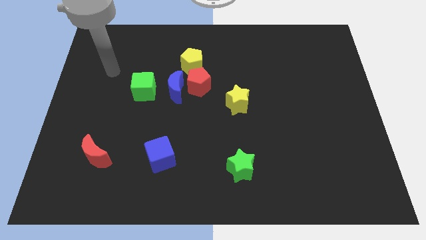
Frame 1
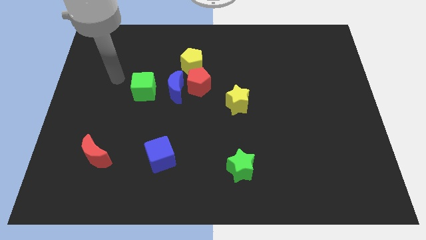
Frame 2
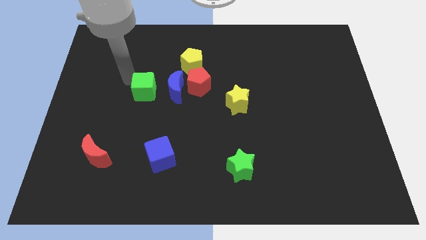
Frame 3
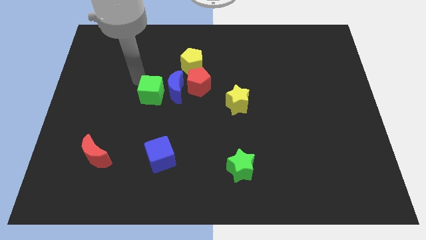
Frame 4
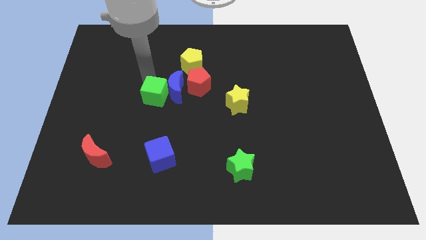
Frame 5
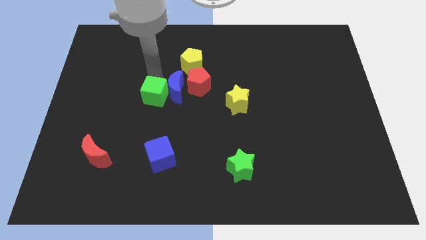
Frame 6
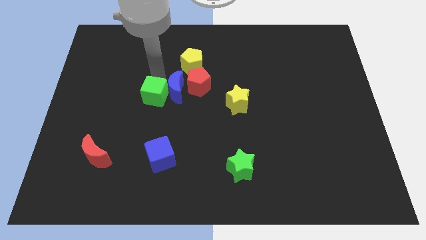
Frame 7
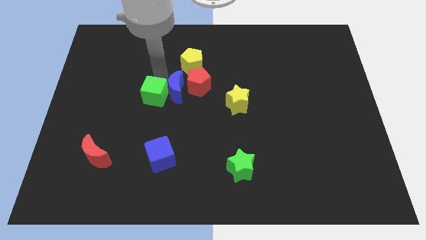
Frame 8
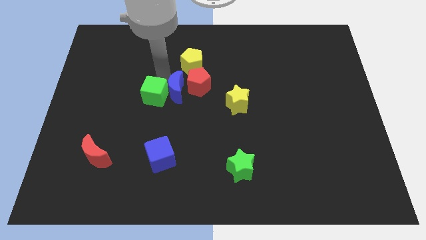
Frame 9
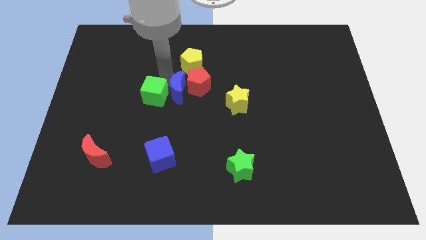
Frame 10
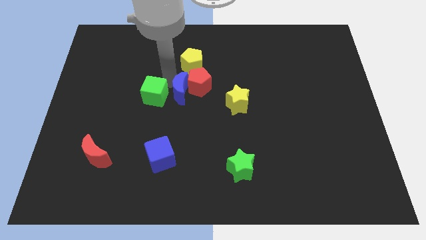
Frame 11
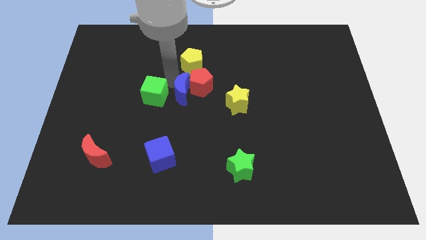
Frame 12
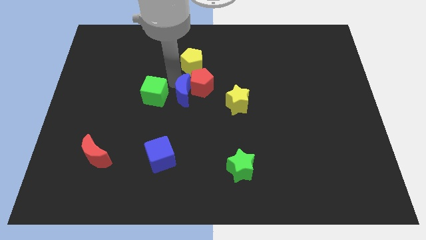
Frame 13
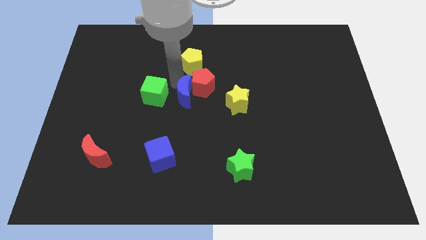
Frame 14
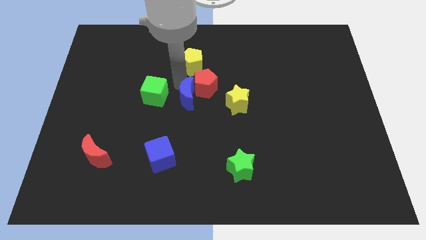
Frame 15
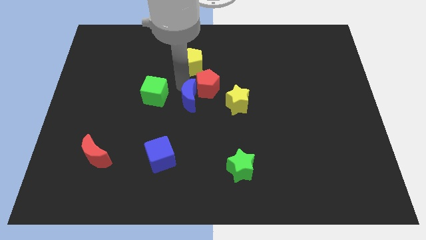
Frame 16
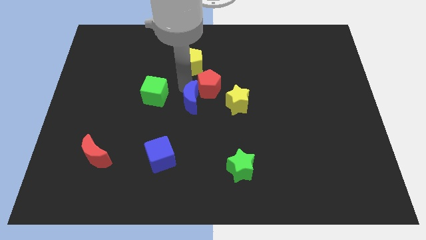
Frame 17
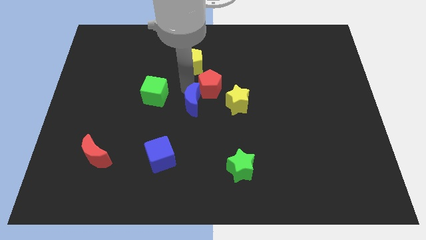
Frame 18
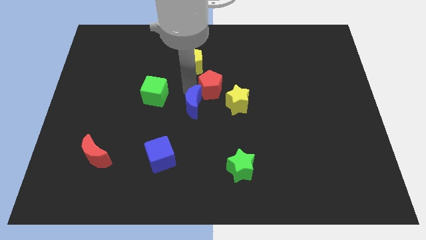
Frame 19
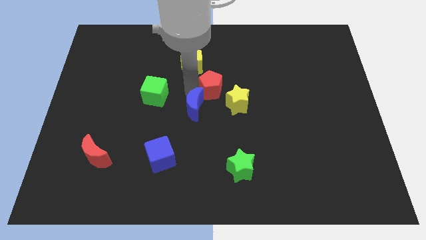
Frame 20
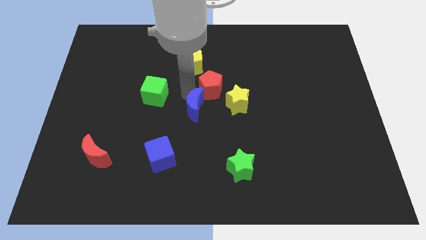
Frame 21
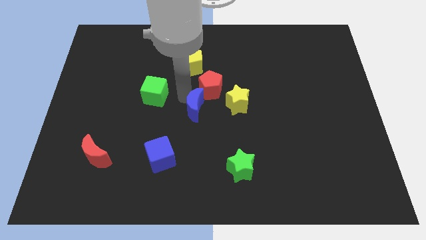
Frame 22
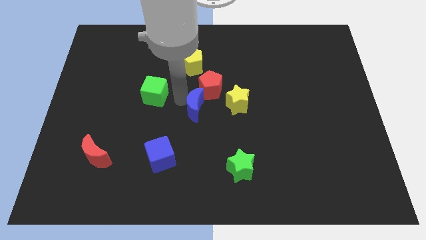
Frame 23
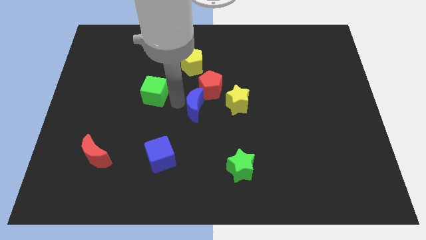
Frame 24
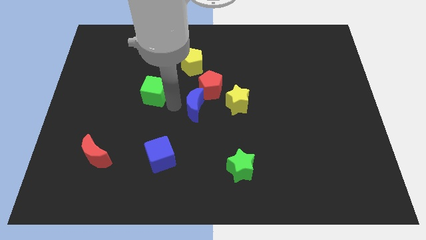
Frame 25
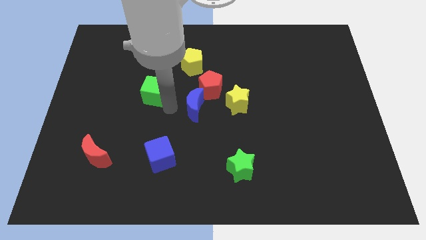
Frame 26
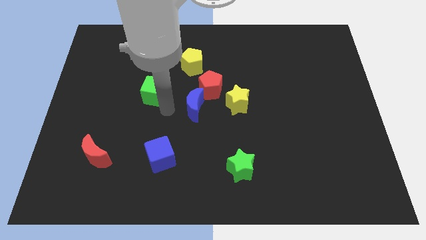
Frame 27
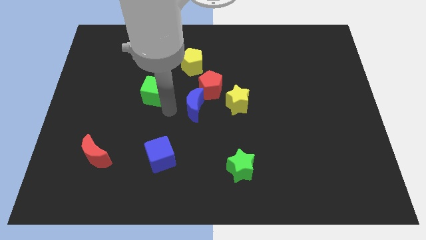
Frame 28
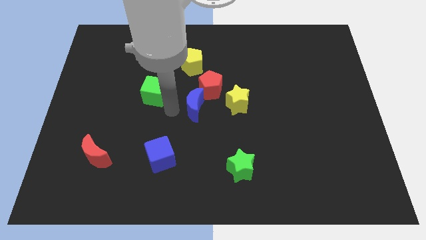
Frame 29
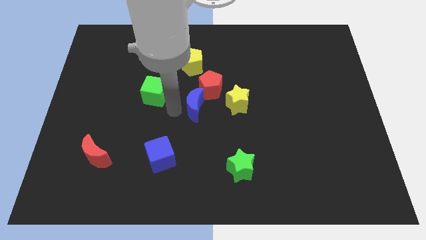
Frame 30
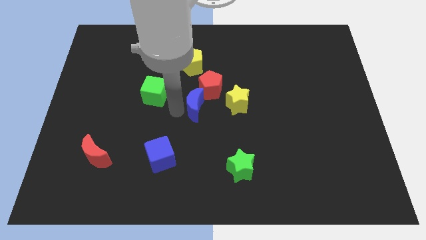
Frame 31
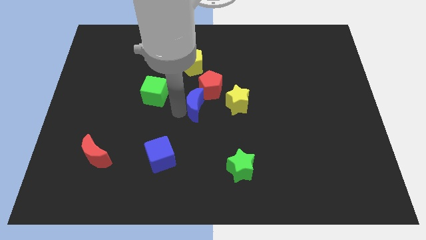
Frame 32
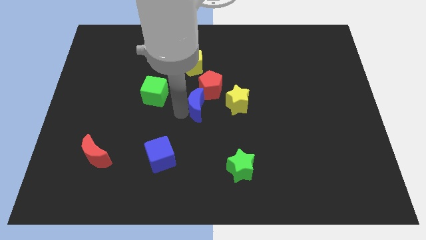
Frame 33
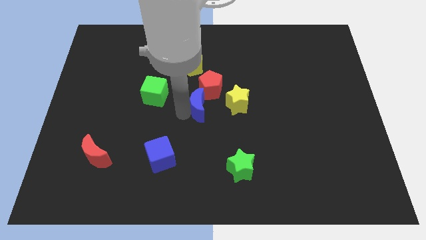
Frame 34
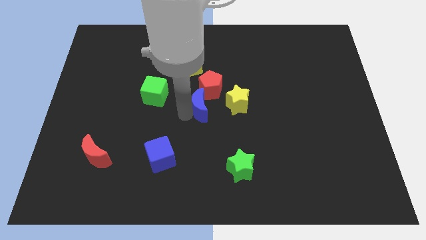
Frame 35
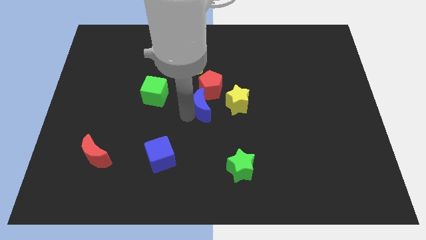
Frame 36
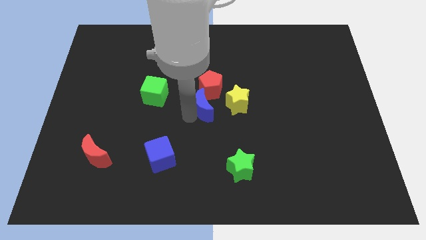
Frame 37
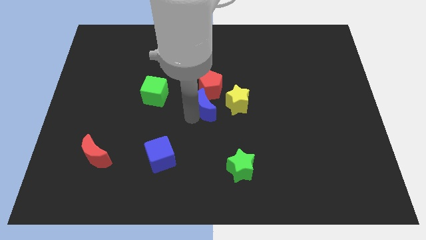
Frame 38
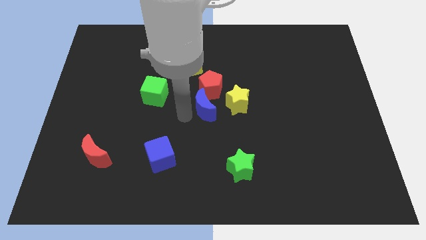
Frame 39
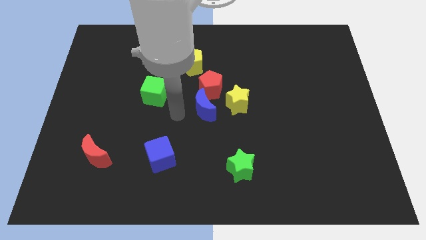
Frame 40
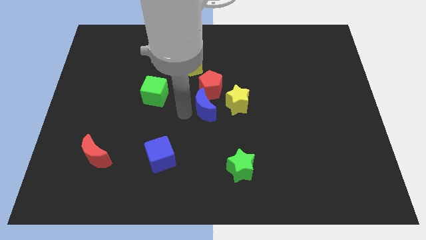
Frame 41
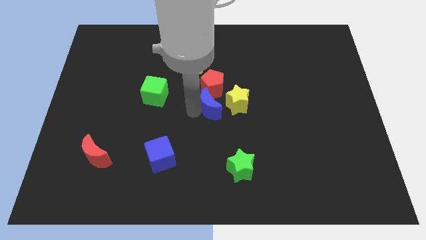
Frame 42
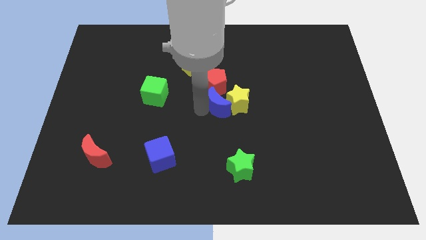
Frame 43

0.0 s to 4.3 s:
put the blue moon next to the yellow star

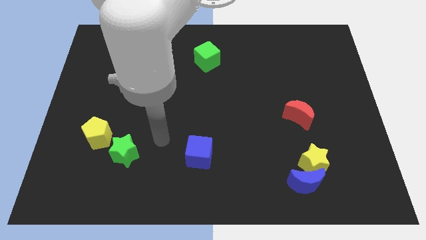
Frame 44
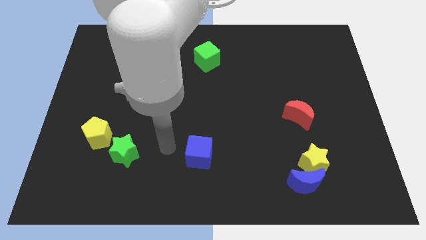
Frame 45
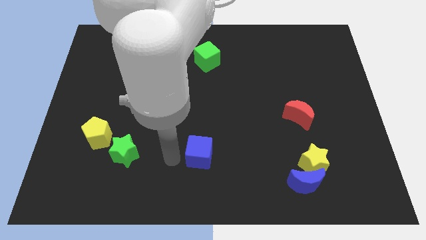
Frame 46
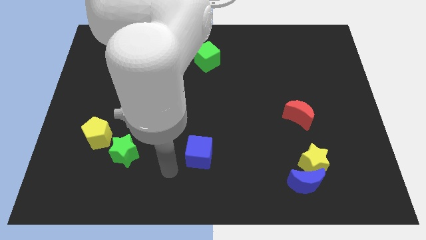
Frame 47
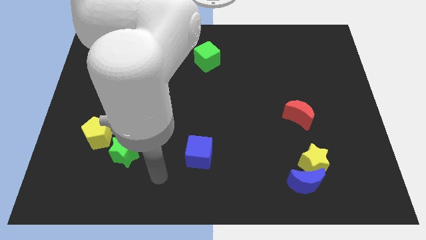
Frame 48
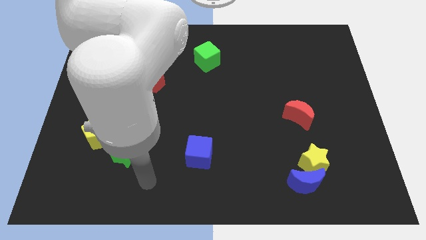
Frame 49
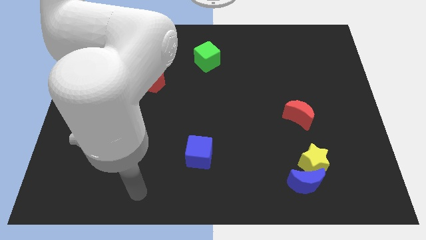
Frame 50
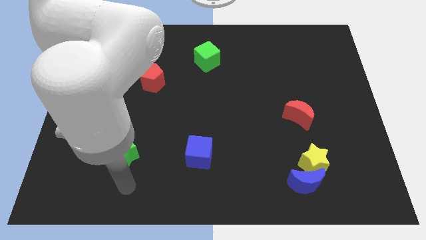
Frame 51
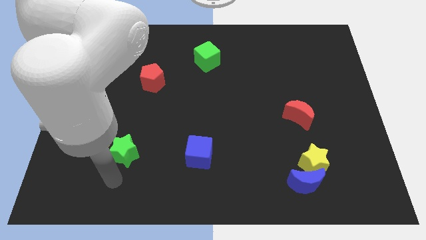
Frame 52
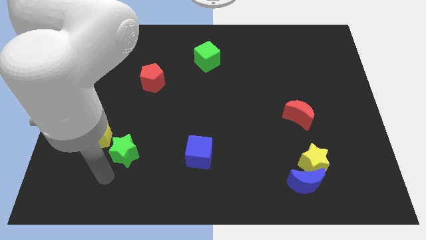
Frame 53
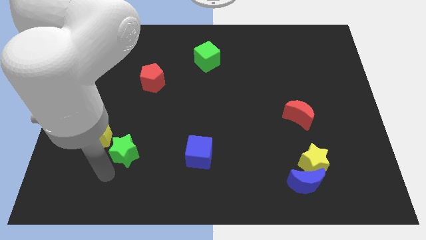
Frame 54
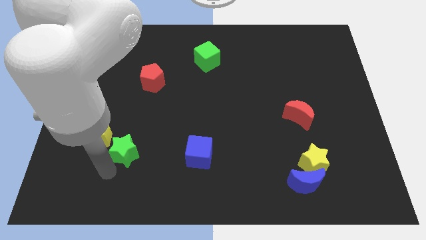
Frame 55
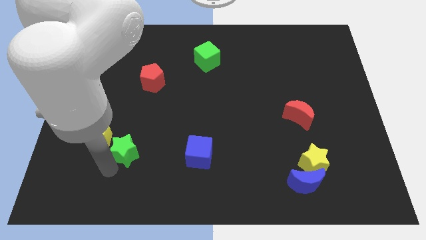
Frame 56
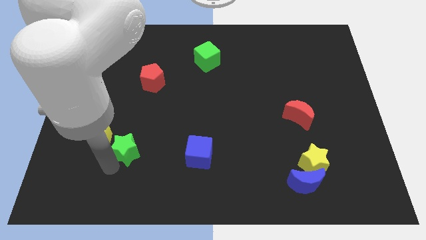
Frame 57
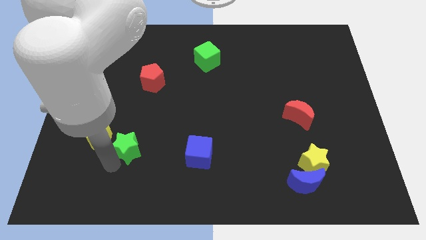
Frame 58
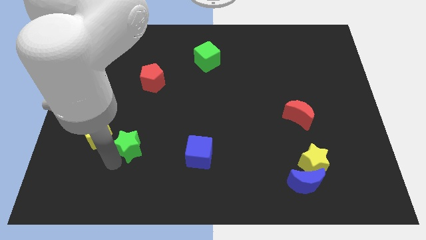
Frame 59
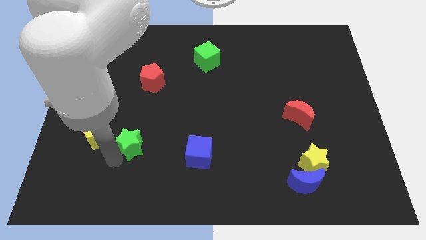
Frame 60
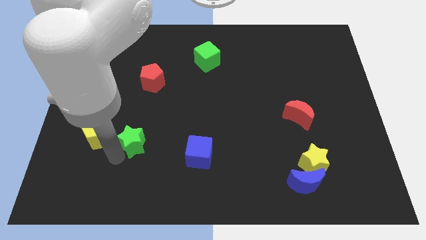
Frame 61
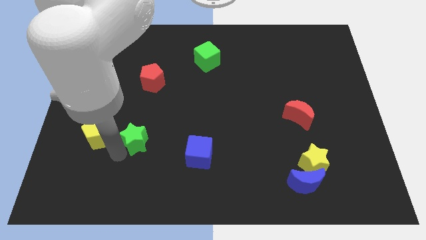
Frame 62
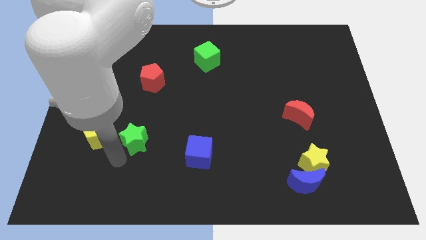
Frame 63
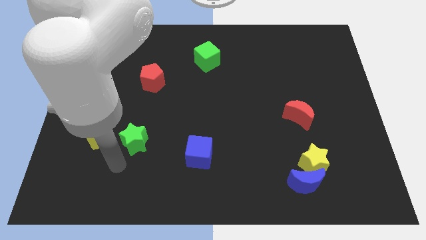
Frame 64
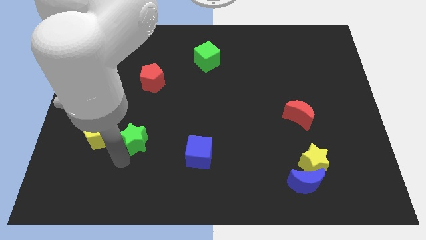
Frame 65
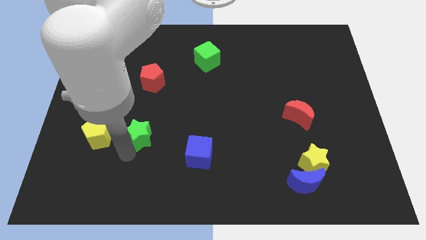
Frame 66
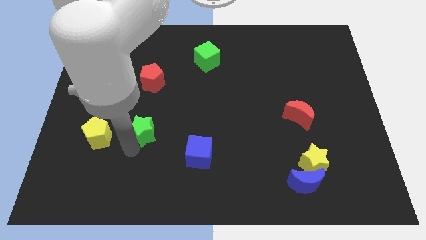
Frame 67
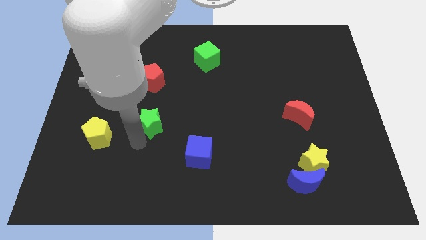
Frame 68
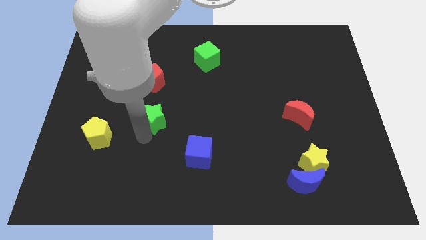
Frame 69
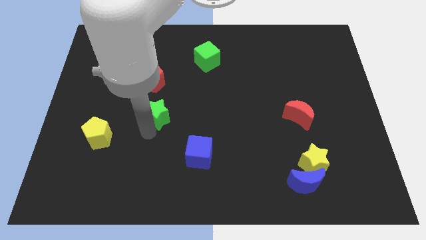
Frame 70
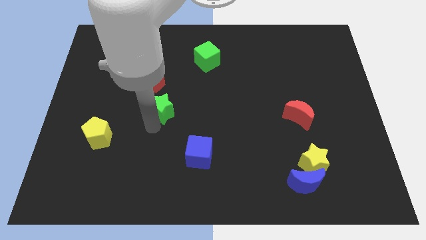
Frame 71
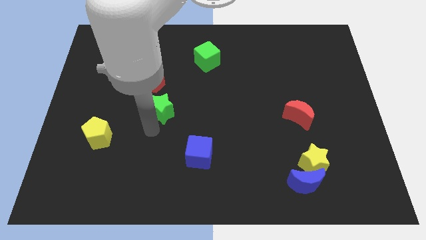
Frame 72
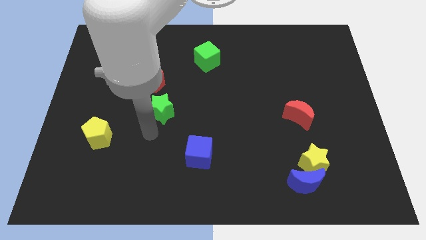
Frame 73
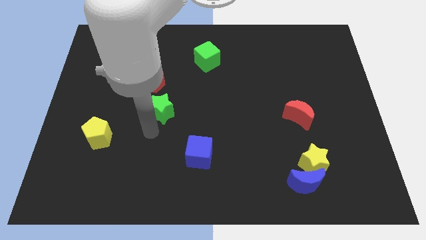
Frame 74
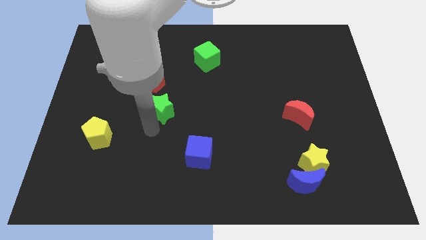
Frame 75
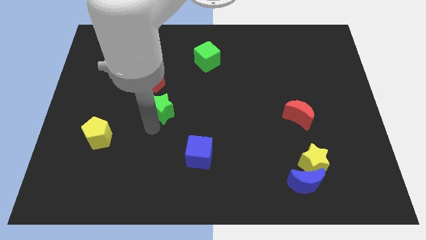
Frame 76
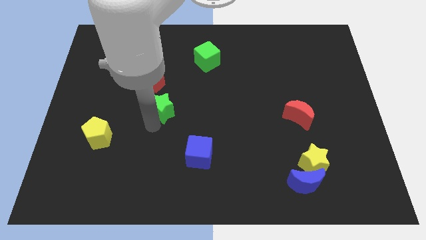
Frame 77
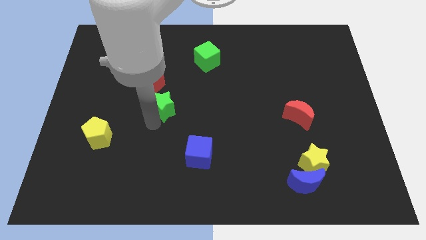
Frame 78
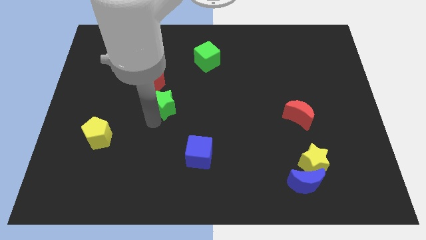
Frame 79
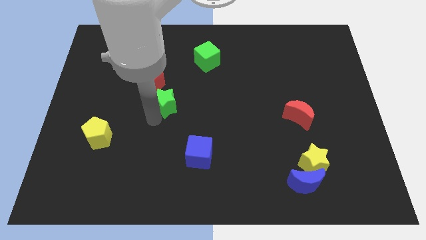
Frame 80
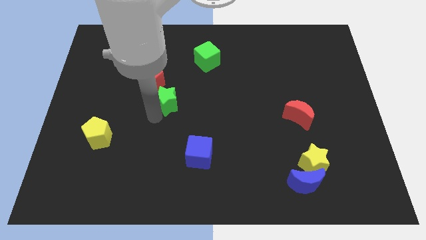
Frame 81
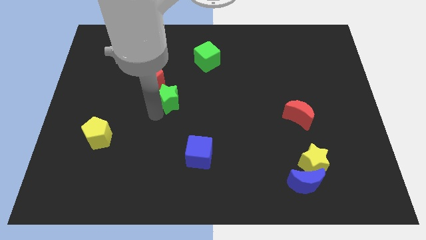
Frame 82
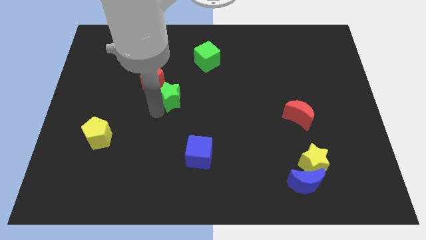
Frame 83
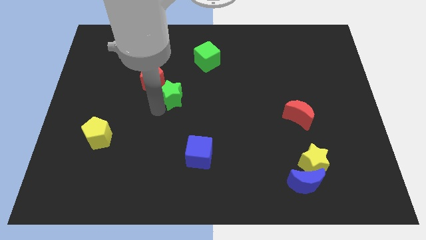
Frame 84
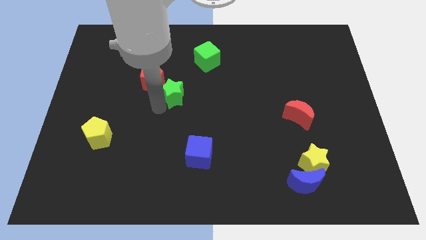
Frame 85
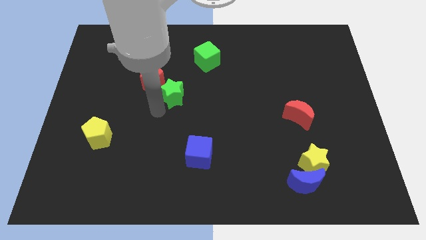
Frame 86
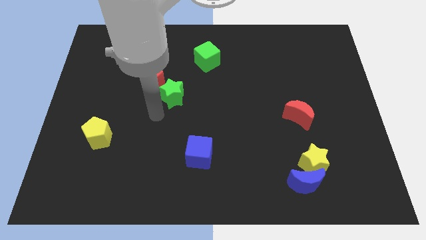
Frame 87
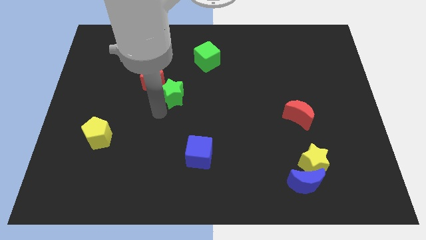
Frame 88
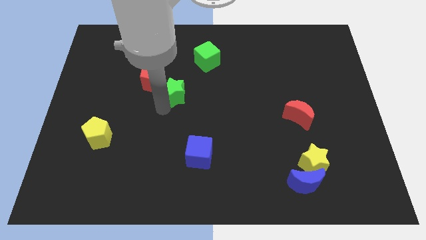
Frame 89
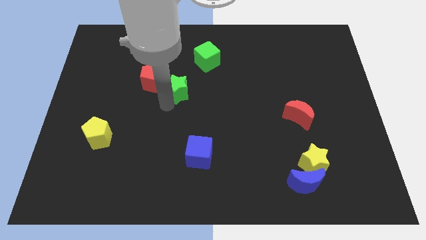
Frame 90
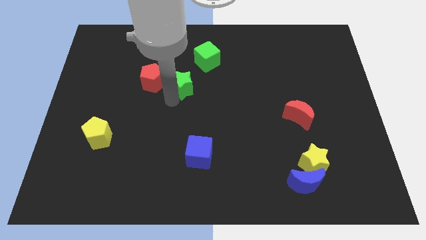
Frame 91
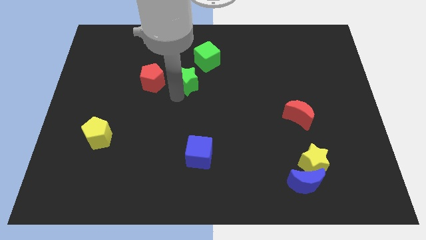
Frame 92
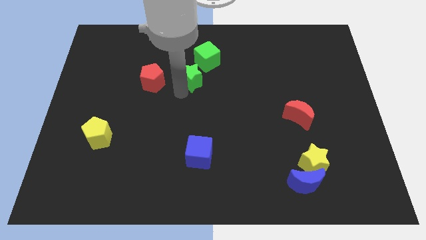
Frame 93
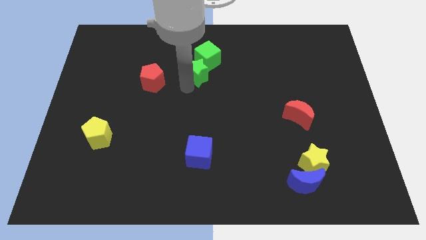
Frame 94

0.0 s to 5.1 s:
put the green star towards the green cube
